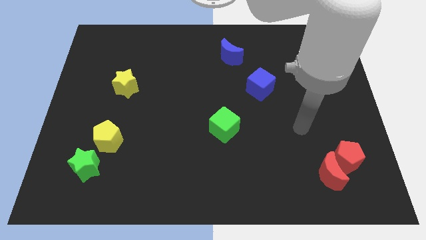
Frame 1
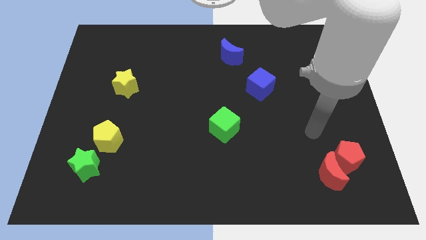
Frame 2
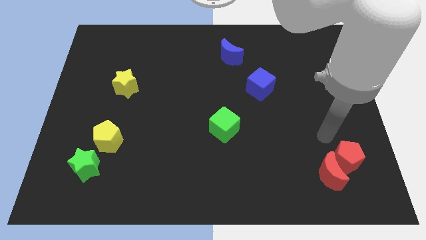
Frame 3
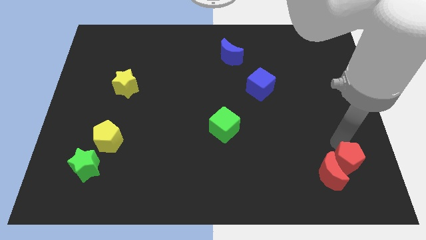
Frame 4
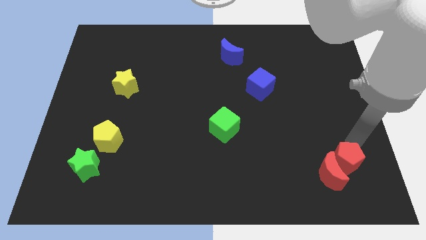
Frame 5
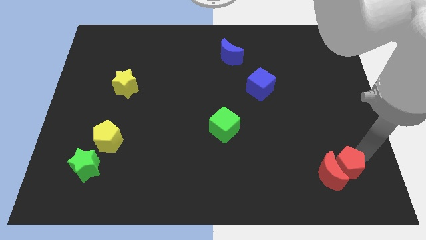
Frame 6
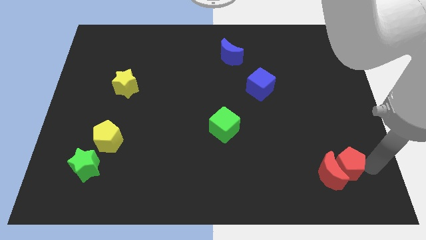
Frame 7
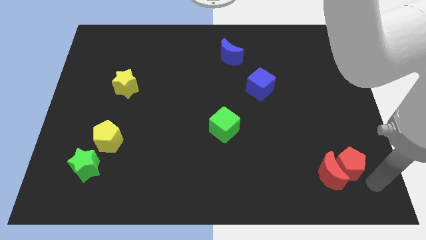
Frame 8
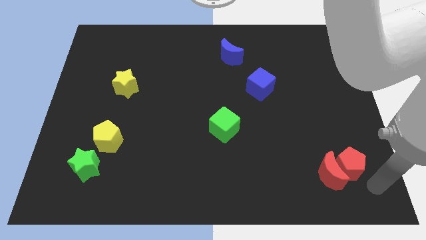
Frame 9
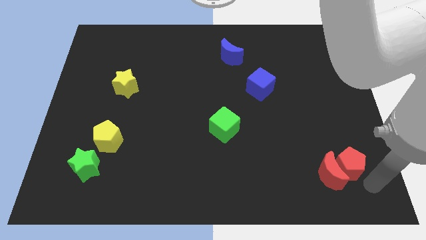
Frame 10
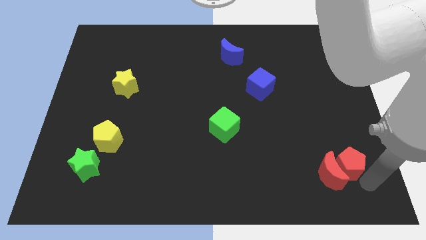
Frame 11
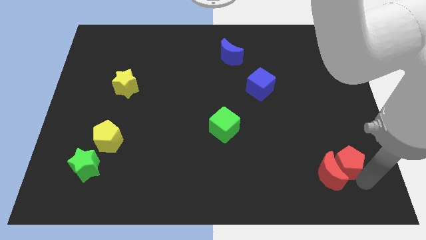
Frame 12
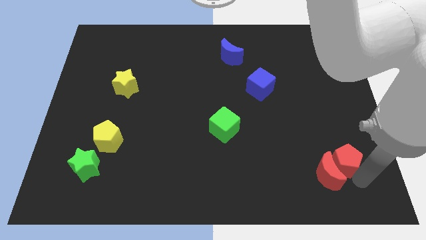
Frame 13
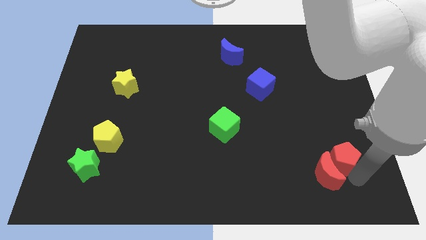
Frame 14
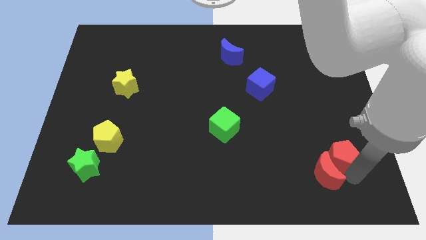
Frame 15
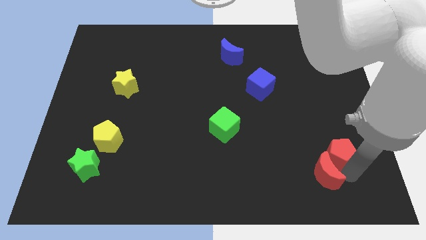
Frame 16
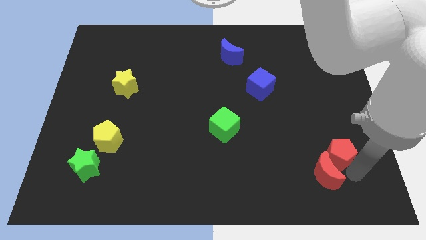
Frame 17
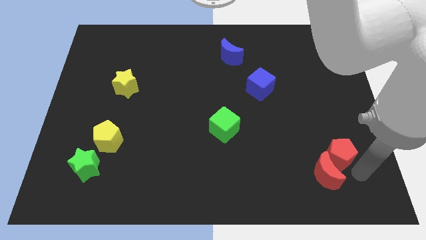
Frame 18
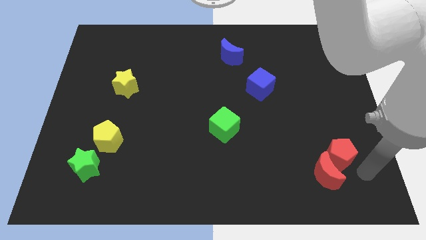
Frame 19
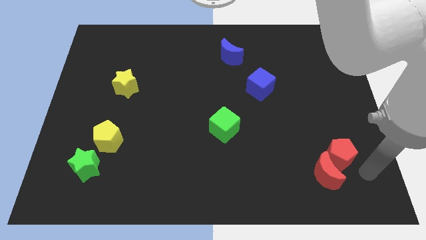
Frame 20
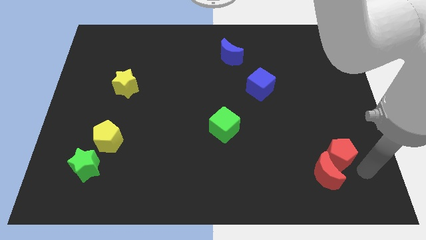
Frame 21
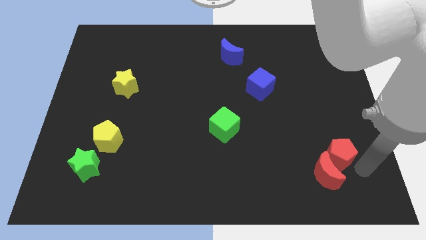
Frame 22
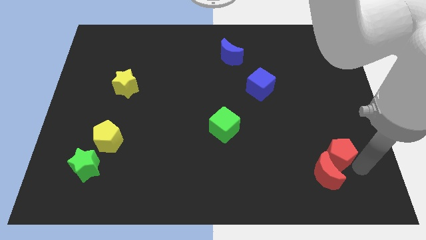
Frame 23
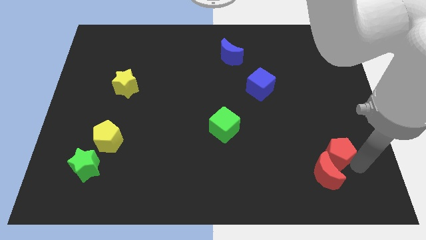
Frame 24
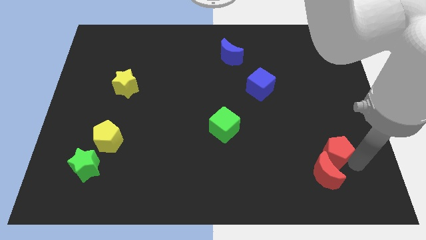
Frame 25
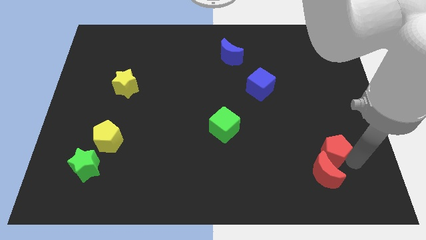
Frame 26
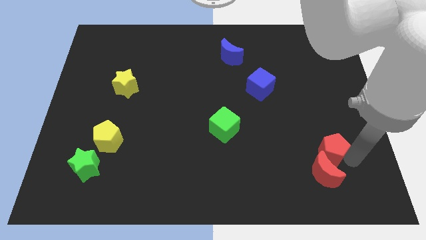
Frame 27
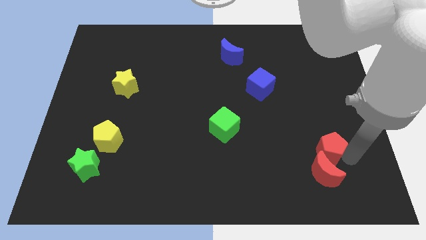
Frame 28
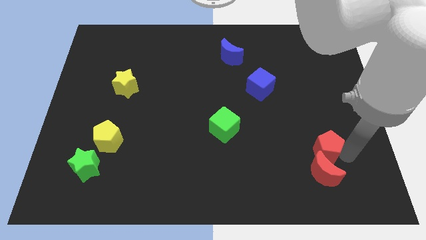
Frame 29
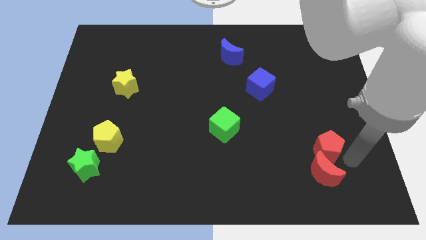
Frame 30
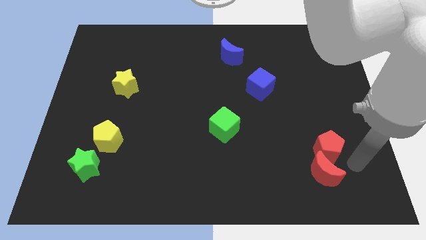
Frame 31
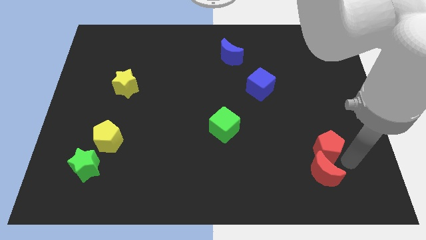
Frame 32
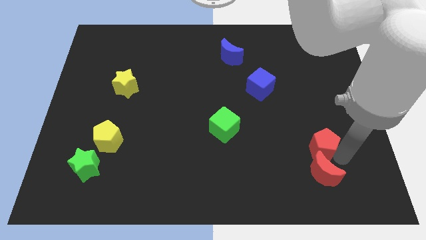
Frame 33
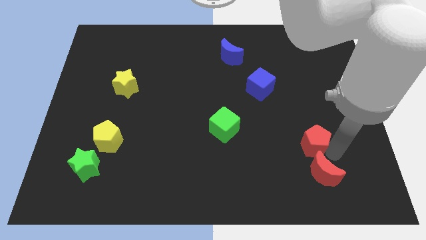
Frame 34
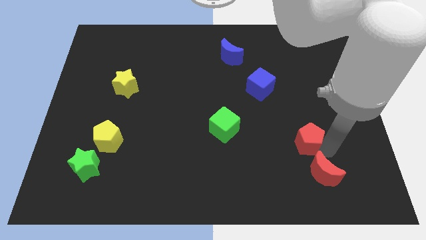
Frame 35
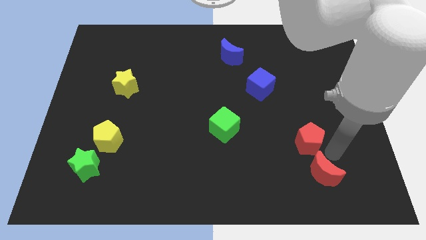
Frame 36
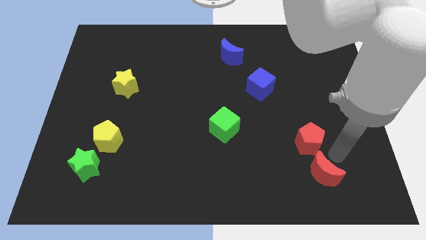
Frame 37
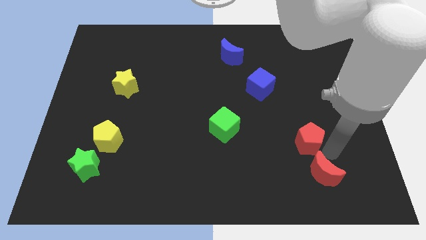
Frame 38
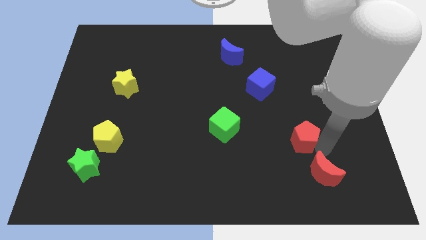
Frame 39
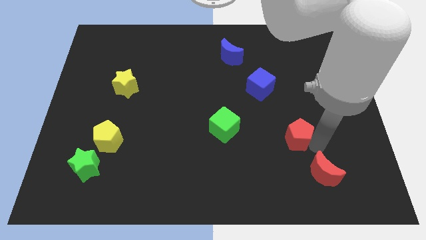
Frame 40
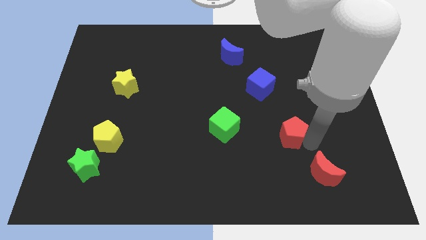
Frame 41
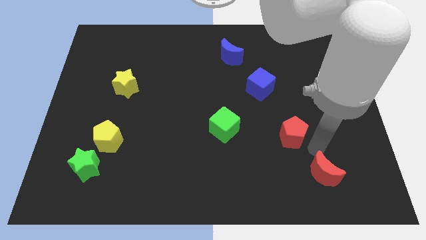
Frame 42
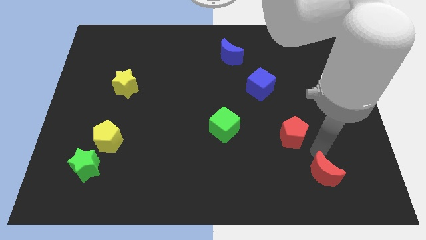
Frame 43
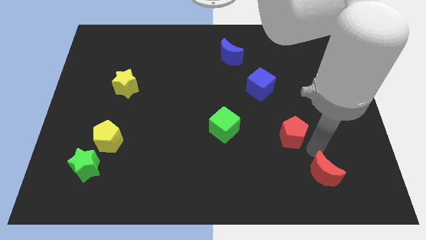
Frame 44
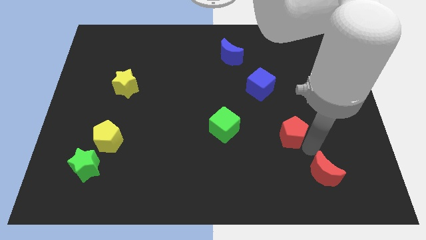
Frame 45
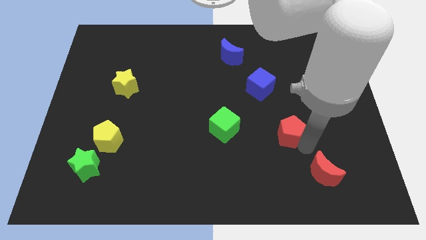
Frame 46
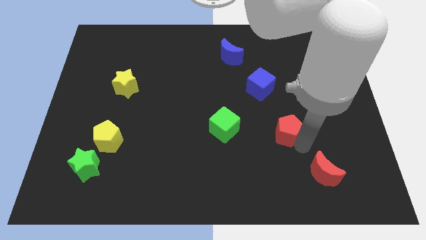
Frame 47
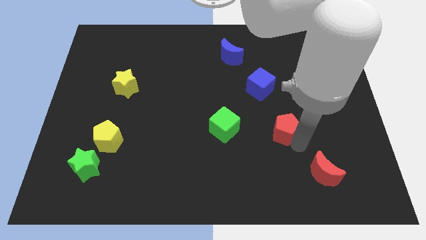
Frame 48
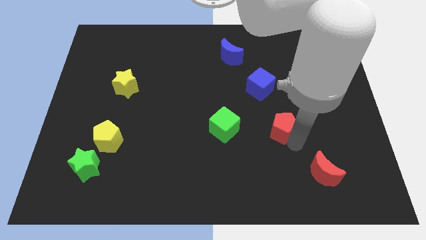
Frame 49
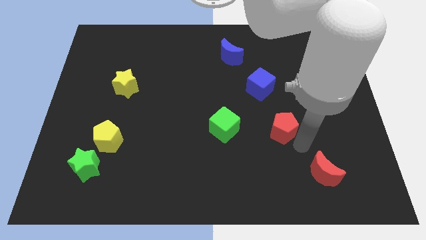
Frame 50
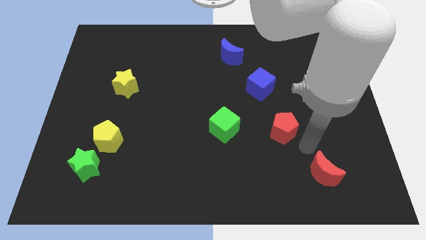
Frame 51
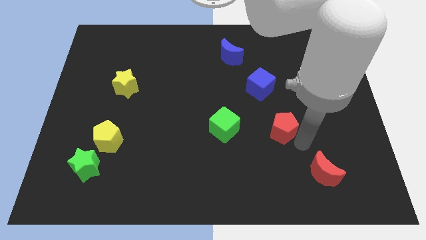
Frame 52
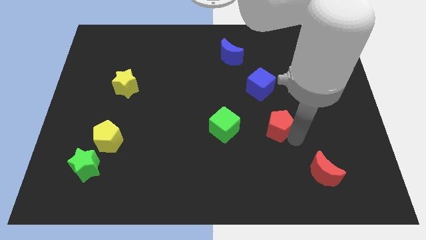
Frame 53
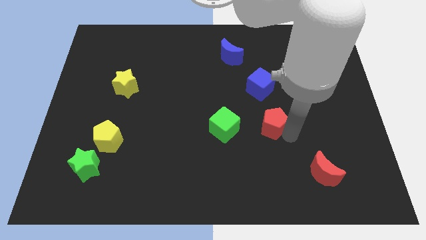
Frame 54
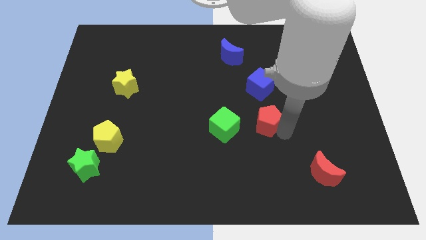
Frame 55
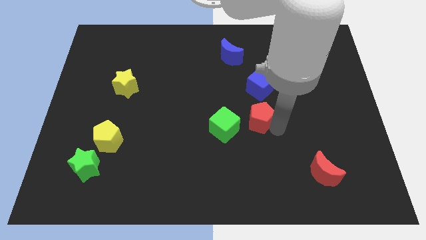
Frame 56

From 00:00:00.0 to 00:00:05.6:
put the red pentagon to the top right of the green cube

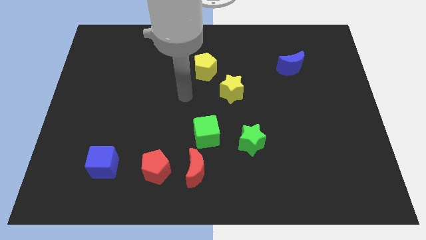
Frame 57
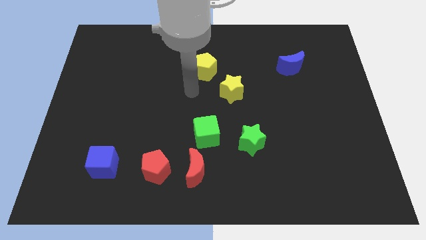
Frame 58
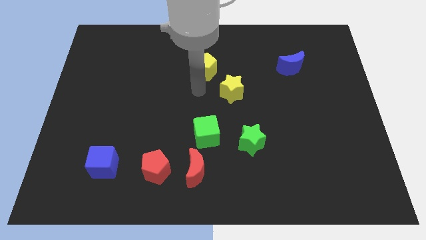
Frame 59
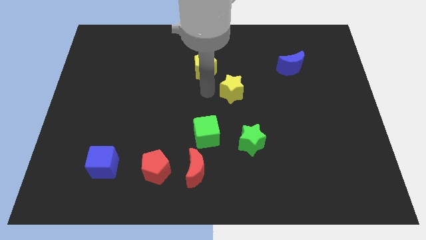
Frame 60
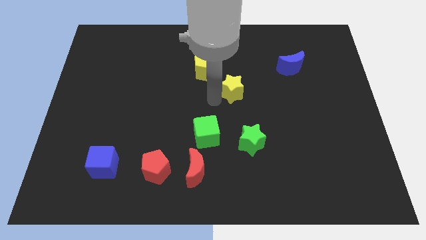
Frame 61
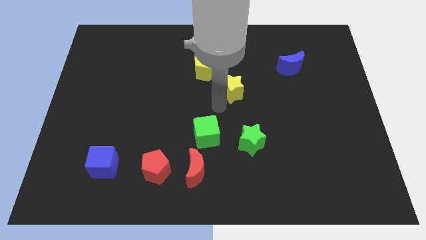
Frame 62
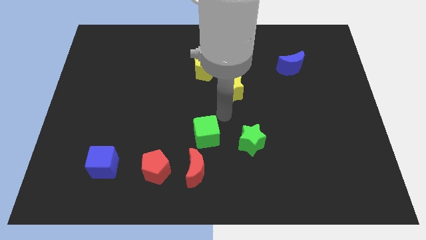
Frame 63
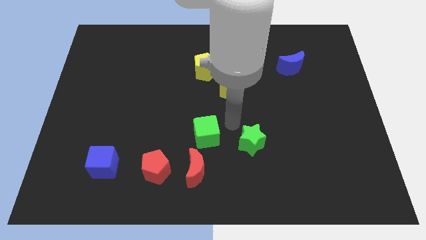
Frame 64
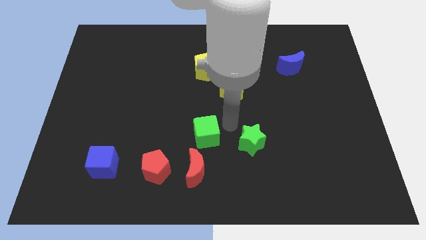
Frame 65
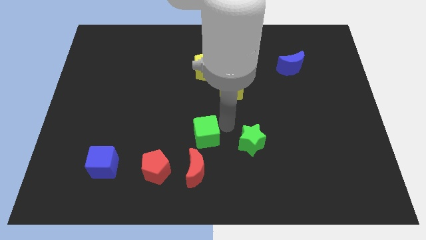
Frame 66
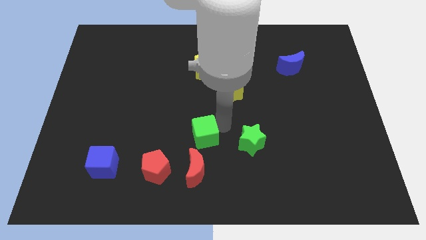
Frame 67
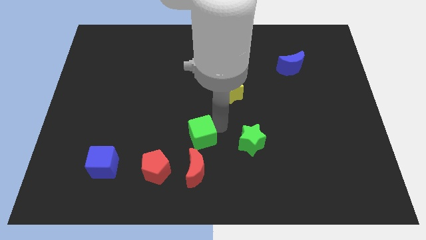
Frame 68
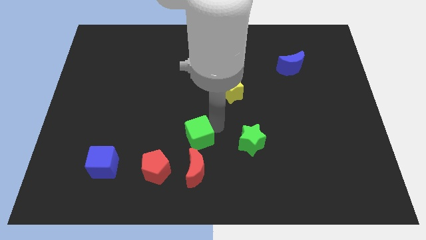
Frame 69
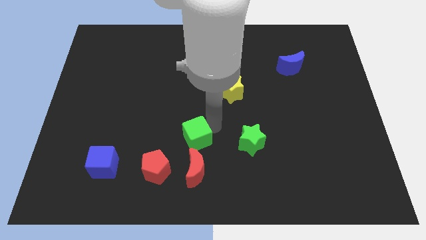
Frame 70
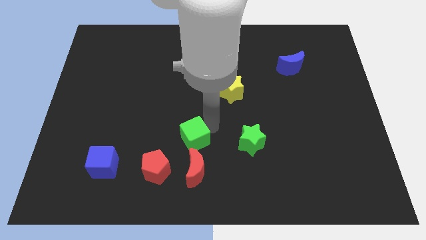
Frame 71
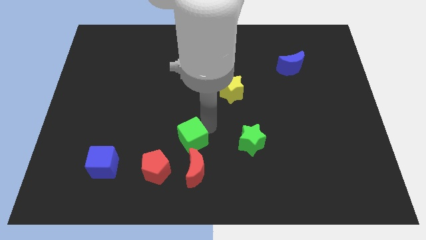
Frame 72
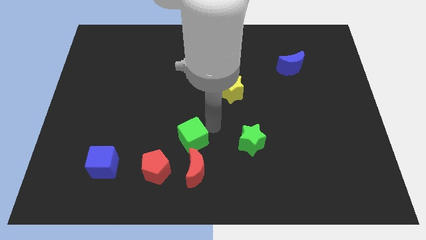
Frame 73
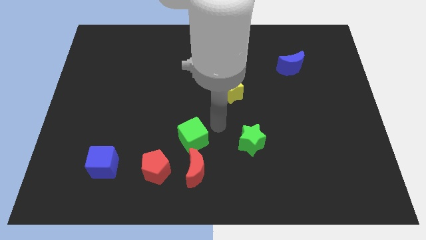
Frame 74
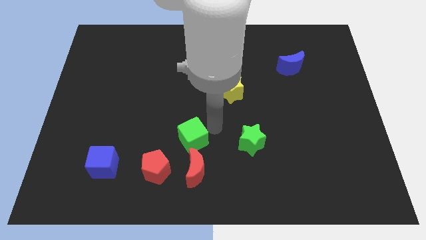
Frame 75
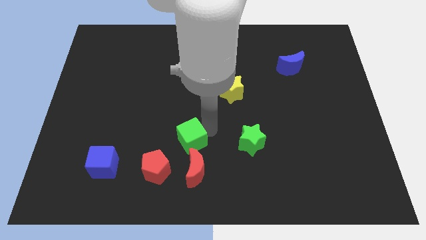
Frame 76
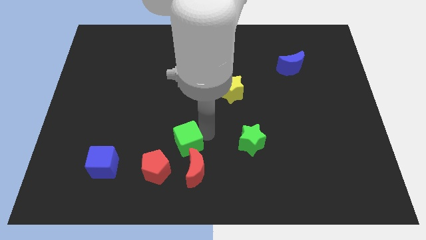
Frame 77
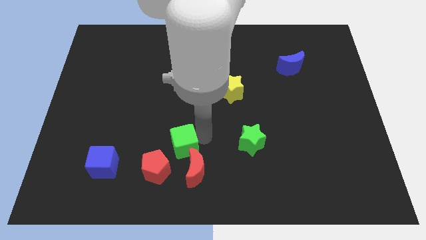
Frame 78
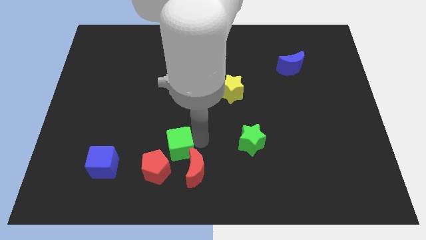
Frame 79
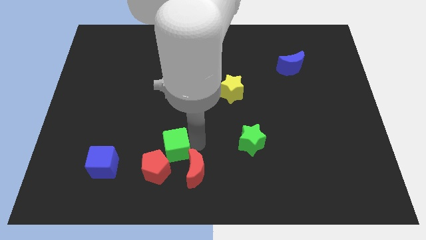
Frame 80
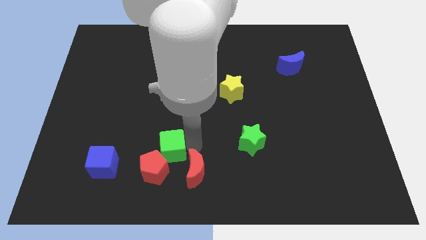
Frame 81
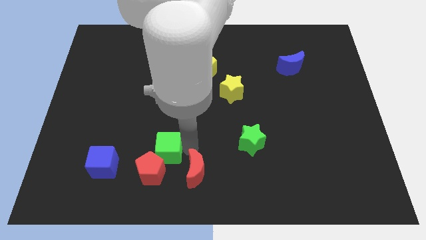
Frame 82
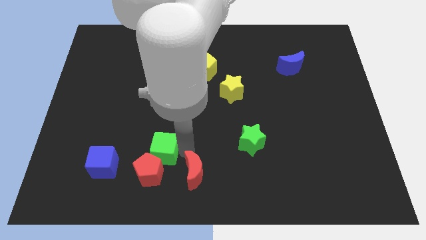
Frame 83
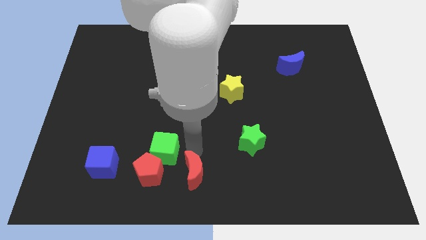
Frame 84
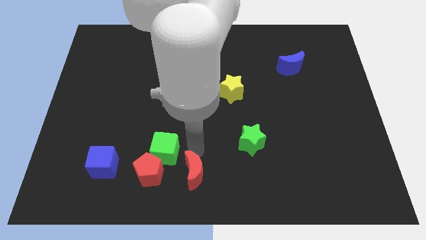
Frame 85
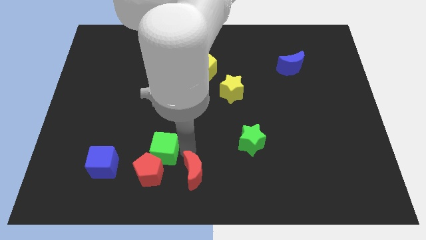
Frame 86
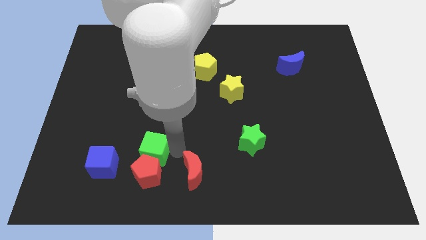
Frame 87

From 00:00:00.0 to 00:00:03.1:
push the green cube diagonally up and to the left of the red pentagon
